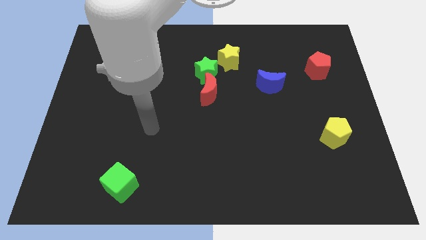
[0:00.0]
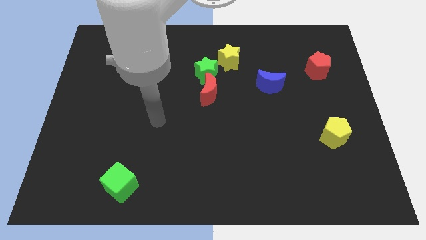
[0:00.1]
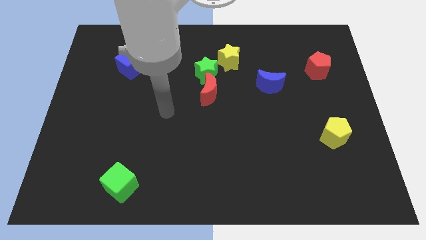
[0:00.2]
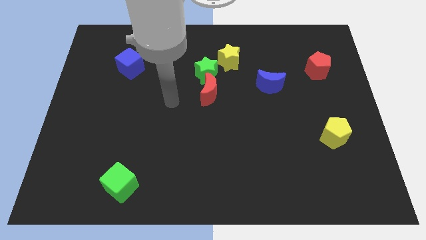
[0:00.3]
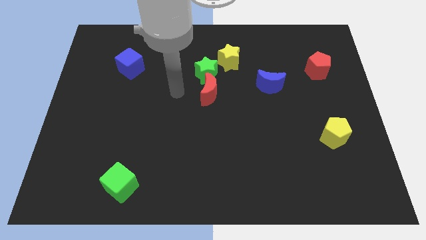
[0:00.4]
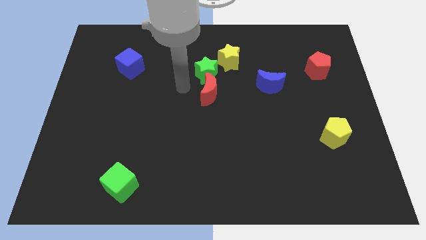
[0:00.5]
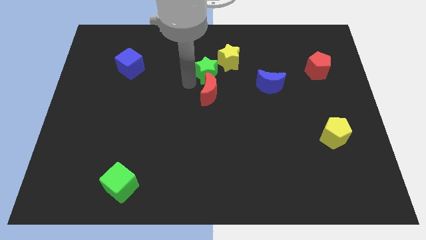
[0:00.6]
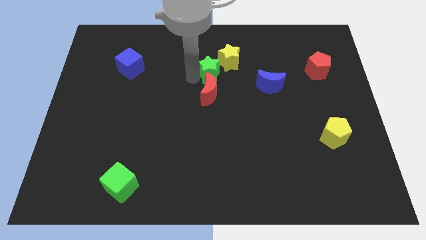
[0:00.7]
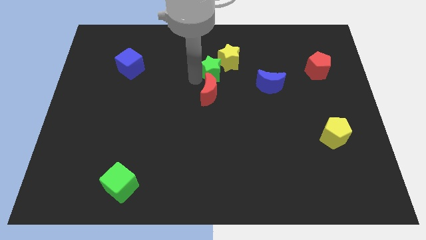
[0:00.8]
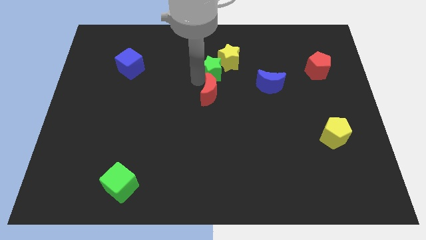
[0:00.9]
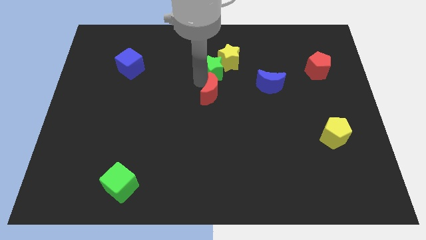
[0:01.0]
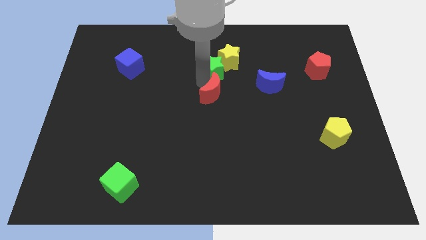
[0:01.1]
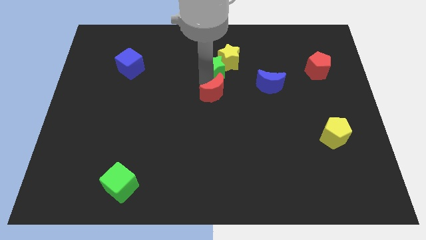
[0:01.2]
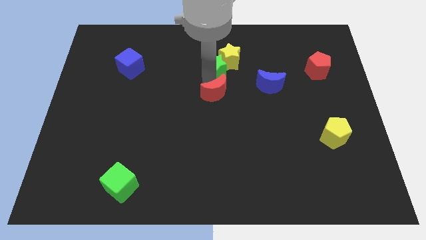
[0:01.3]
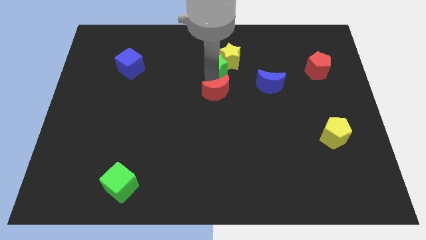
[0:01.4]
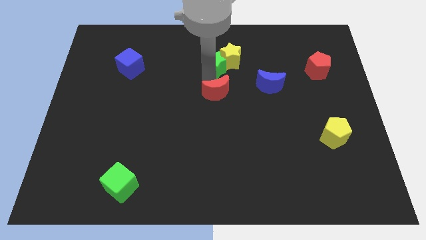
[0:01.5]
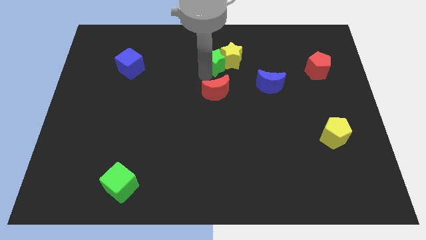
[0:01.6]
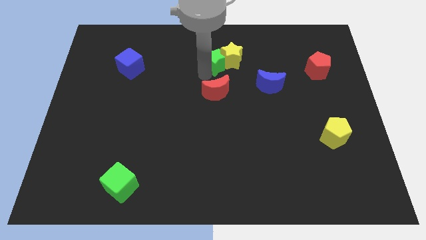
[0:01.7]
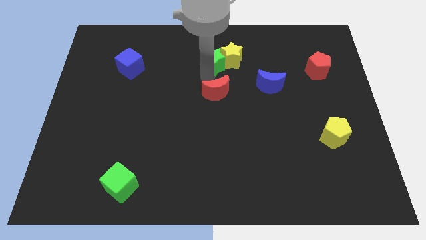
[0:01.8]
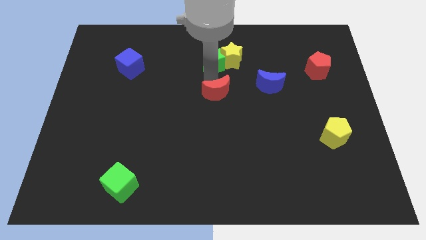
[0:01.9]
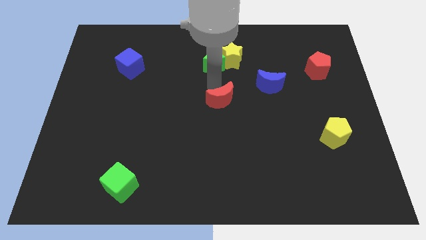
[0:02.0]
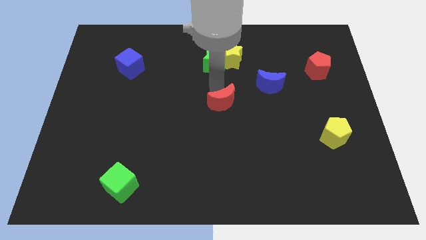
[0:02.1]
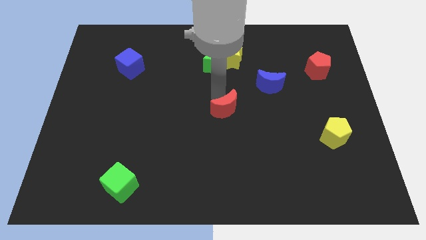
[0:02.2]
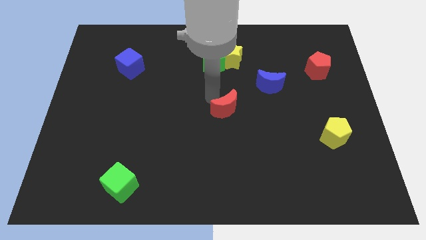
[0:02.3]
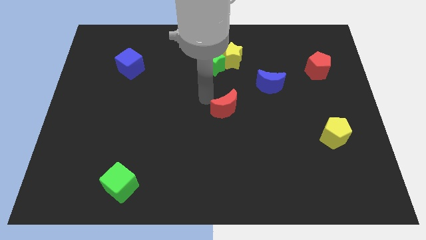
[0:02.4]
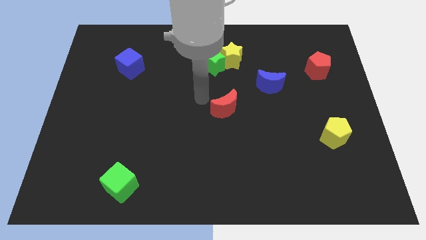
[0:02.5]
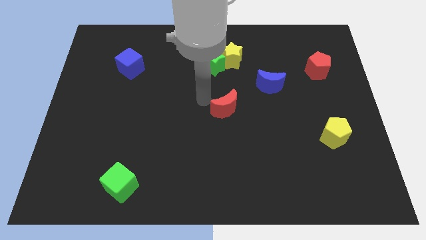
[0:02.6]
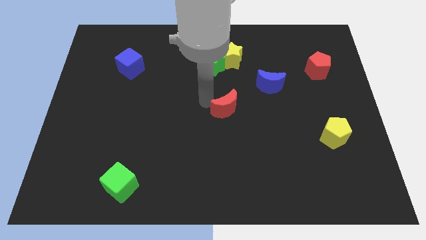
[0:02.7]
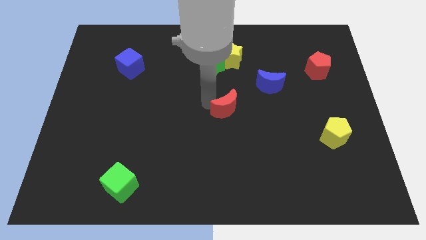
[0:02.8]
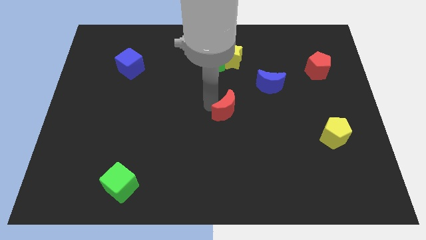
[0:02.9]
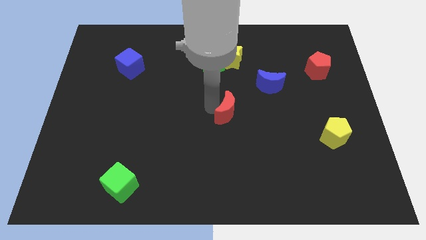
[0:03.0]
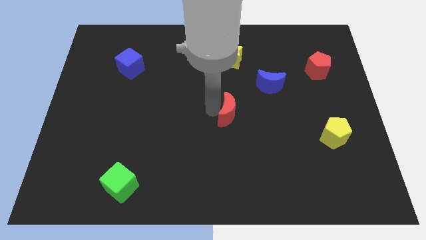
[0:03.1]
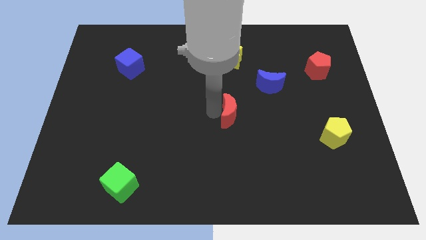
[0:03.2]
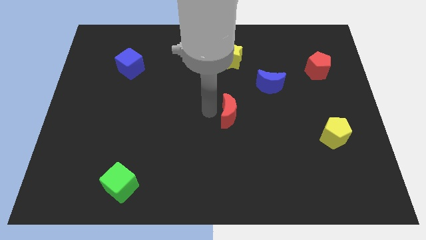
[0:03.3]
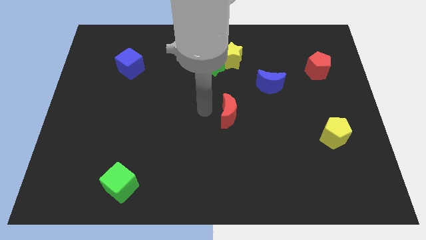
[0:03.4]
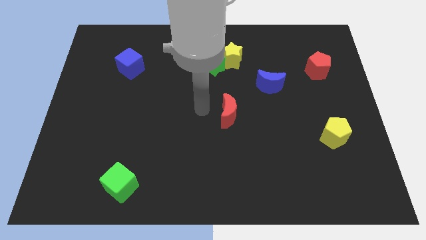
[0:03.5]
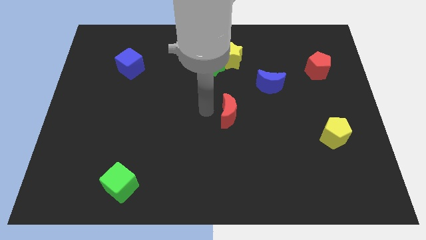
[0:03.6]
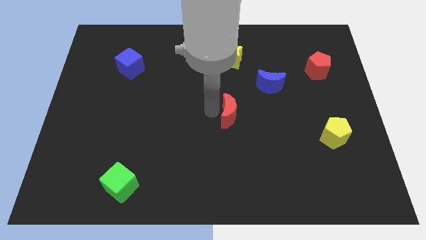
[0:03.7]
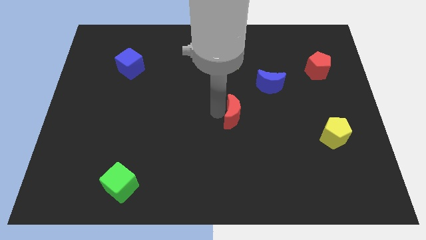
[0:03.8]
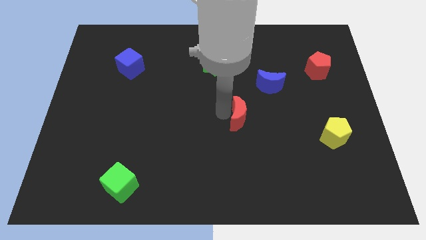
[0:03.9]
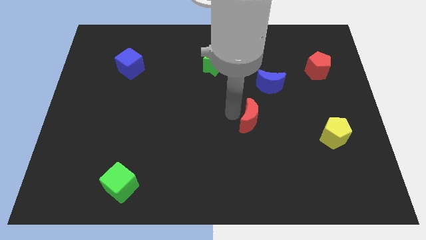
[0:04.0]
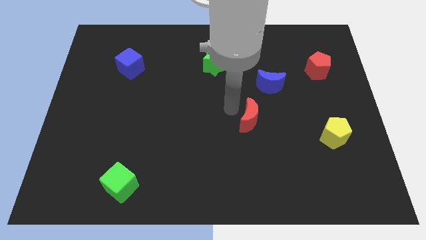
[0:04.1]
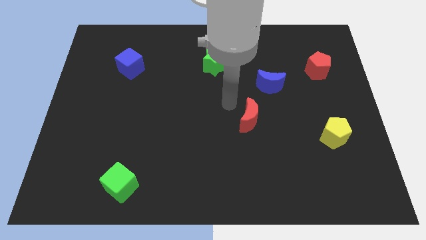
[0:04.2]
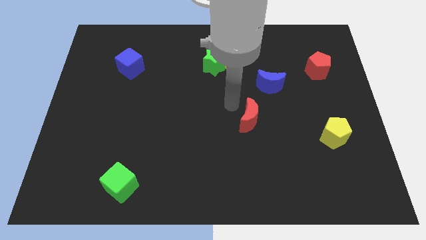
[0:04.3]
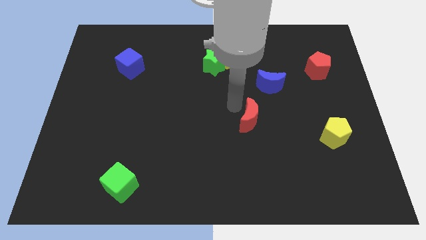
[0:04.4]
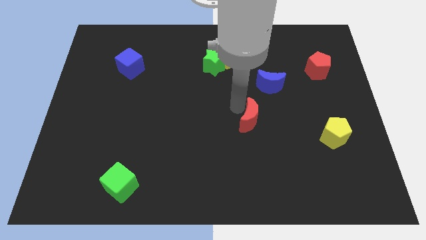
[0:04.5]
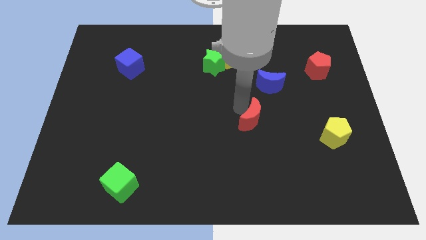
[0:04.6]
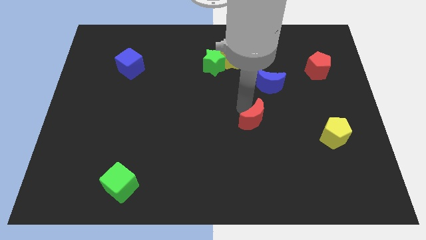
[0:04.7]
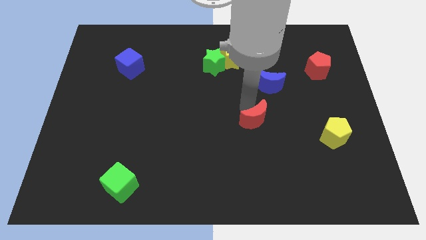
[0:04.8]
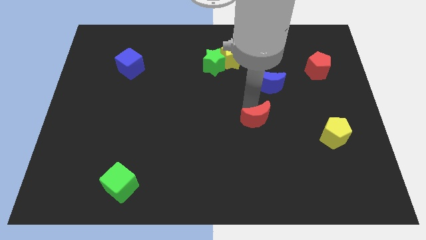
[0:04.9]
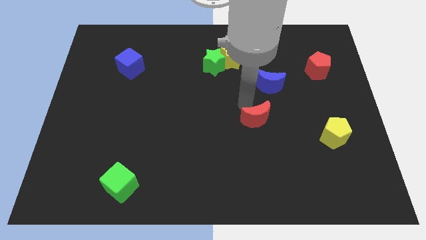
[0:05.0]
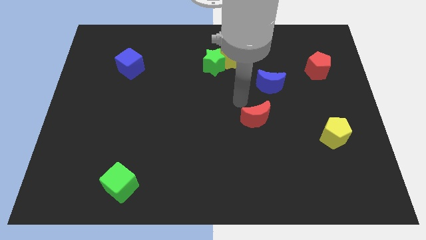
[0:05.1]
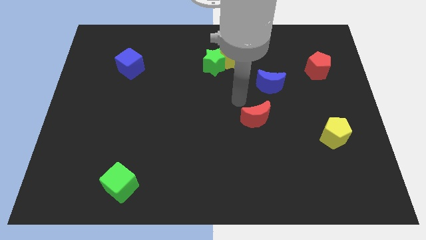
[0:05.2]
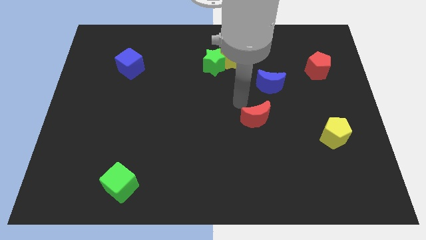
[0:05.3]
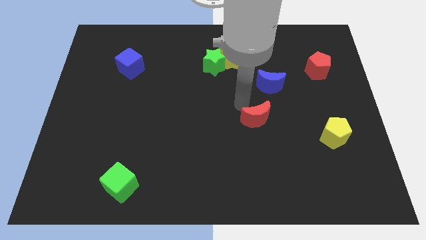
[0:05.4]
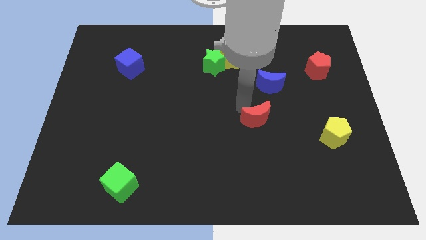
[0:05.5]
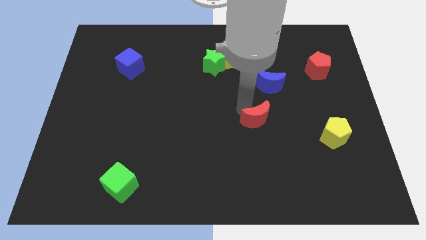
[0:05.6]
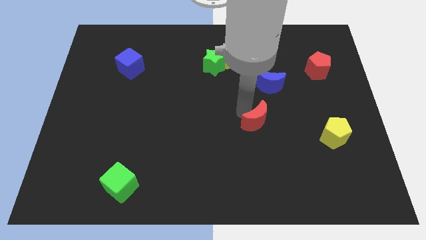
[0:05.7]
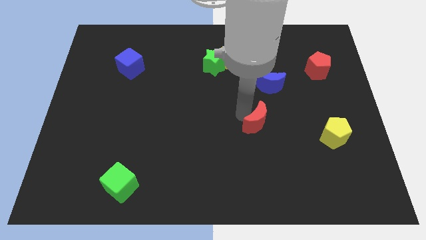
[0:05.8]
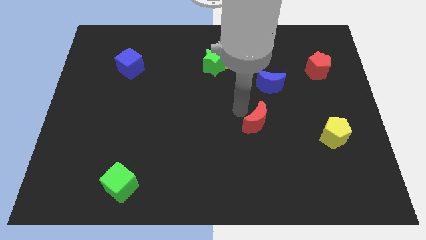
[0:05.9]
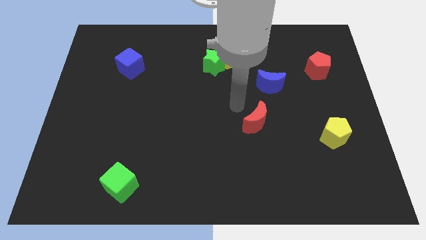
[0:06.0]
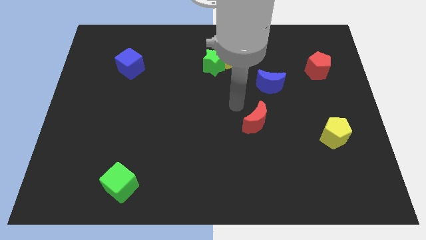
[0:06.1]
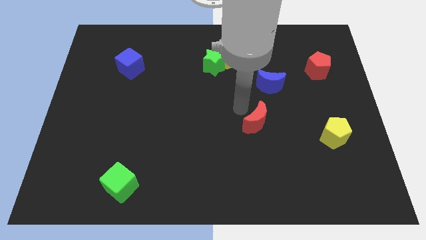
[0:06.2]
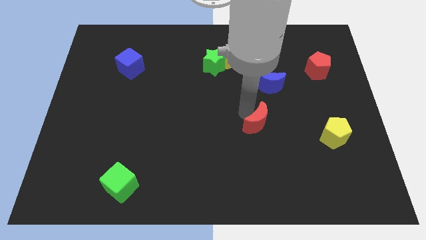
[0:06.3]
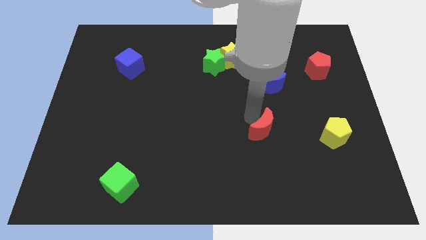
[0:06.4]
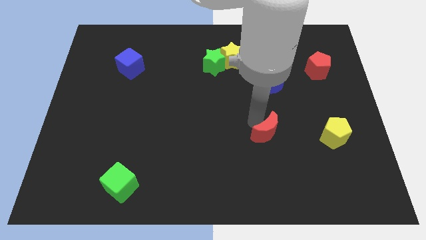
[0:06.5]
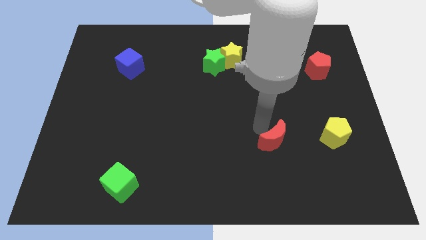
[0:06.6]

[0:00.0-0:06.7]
slide the red moon downwards and to the right

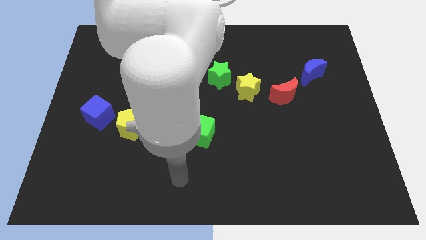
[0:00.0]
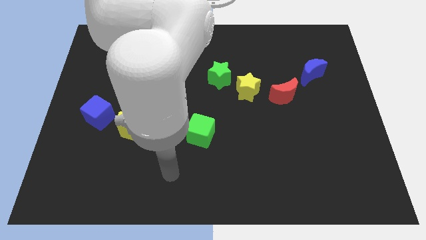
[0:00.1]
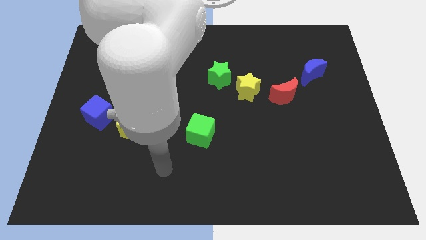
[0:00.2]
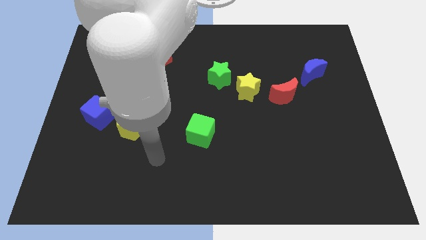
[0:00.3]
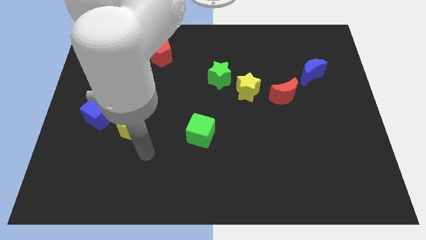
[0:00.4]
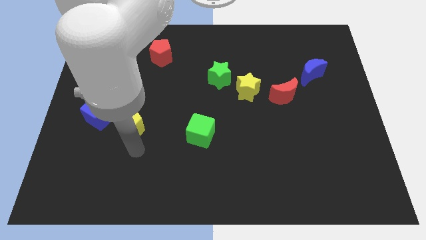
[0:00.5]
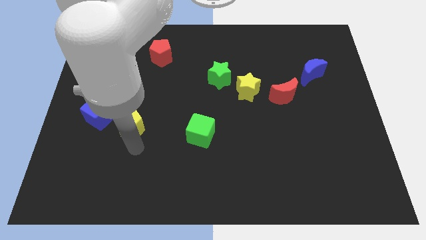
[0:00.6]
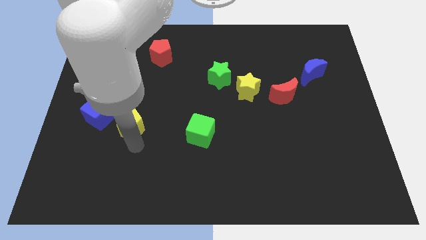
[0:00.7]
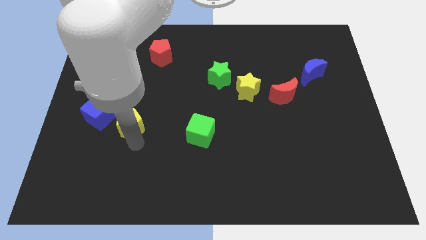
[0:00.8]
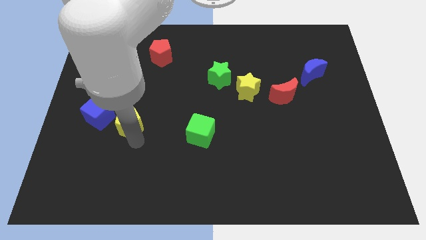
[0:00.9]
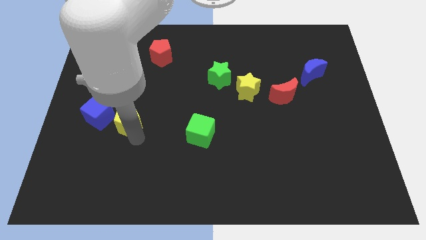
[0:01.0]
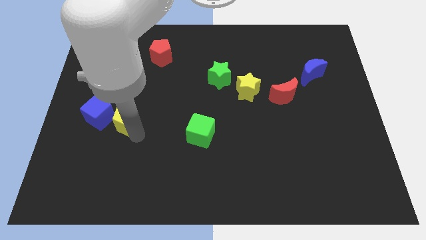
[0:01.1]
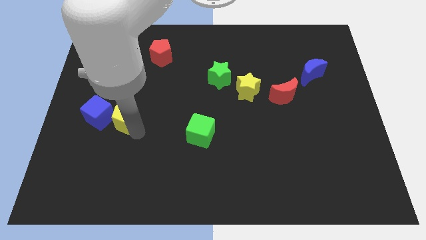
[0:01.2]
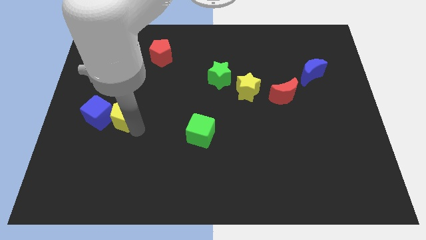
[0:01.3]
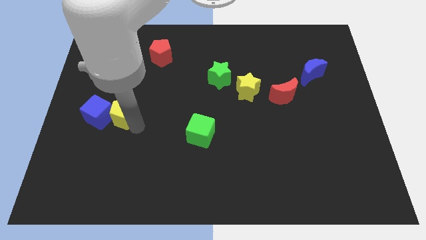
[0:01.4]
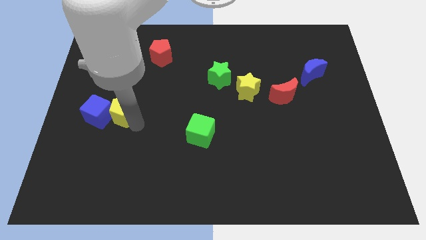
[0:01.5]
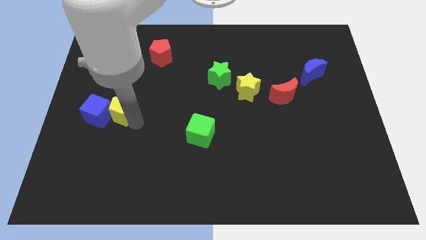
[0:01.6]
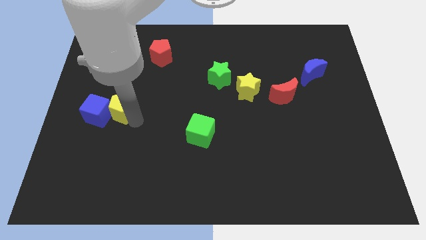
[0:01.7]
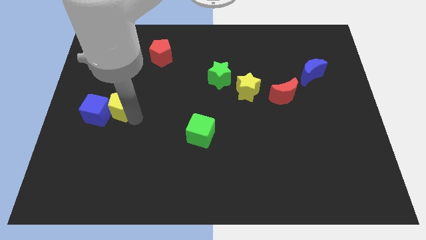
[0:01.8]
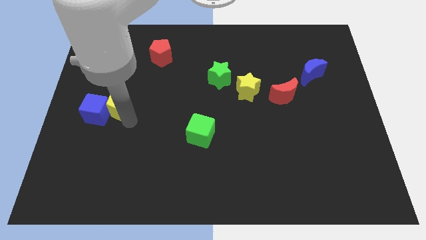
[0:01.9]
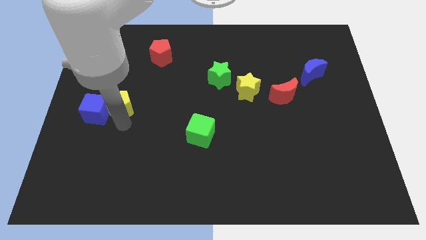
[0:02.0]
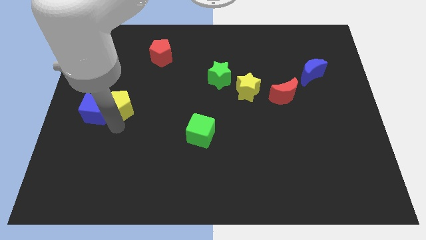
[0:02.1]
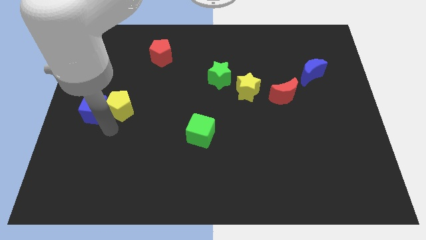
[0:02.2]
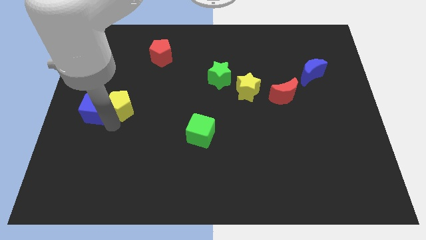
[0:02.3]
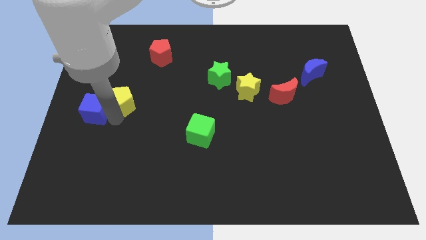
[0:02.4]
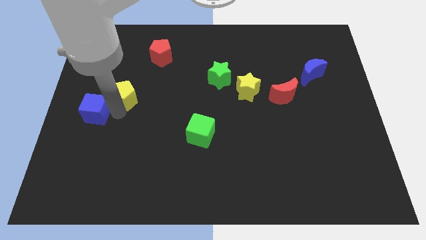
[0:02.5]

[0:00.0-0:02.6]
push the yellow pentagon up somewhat
